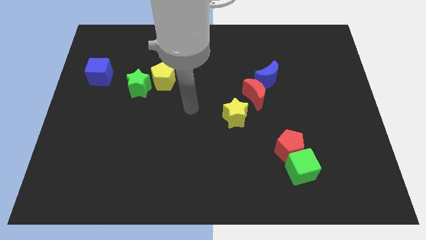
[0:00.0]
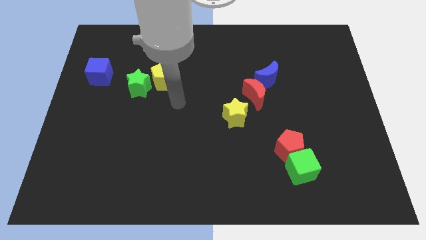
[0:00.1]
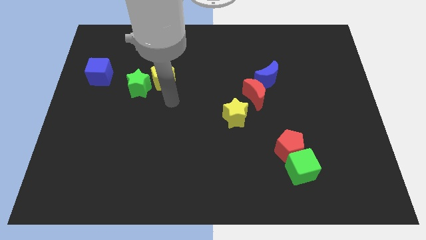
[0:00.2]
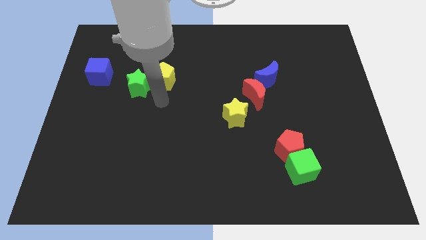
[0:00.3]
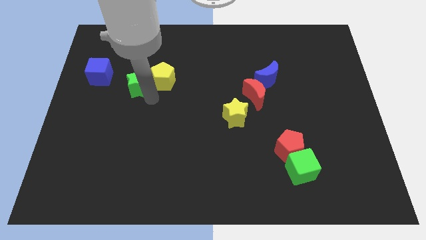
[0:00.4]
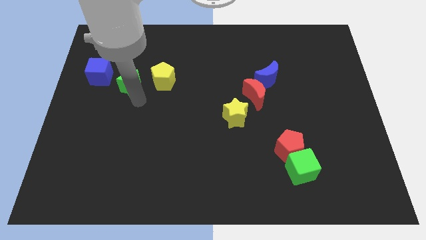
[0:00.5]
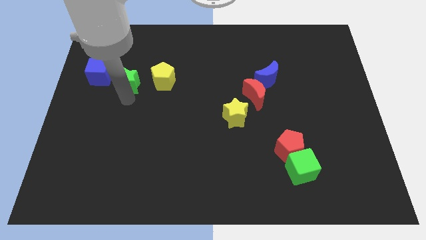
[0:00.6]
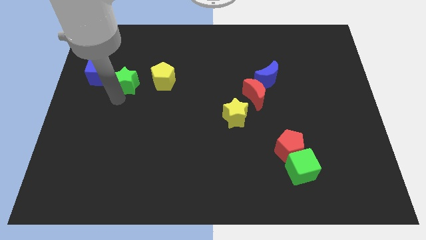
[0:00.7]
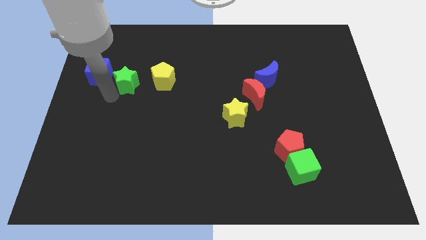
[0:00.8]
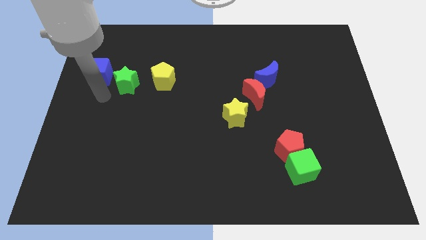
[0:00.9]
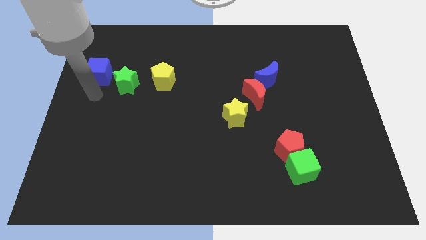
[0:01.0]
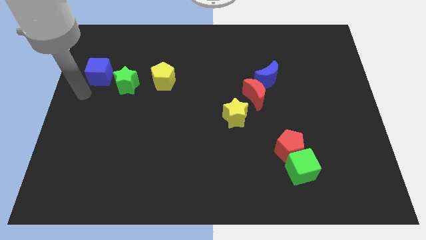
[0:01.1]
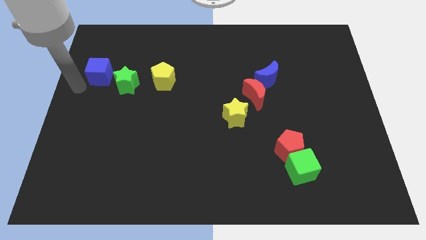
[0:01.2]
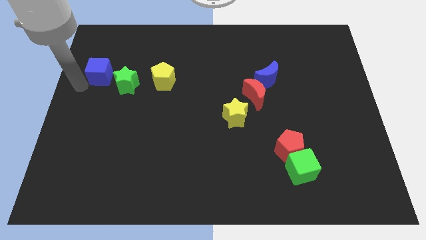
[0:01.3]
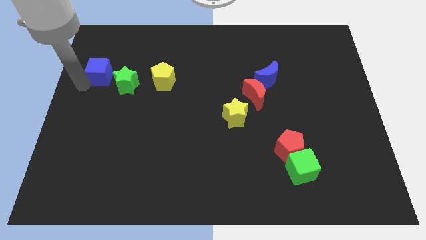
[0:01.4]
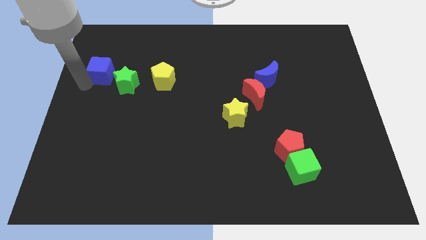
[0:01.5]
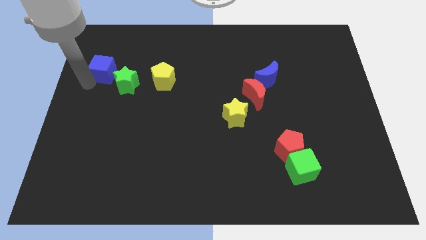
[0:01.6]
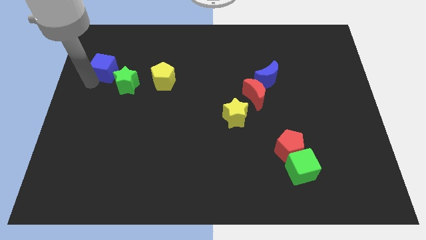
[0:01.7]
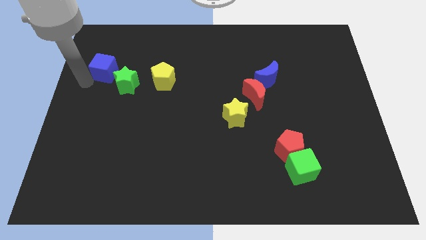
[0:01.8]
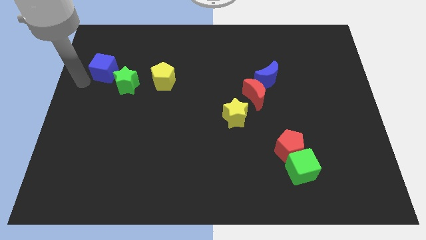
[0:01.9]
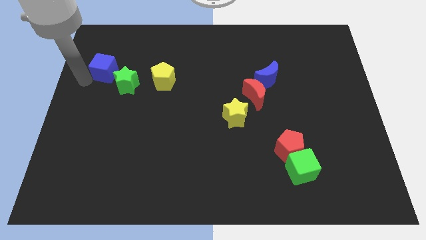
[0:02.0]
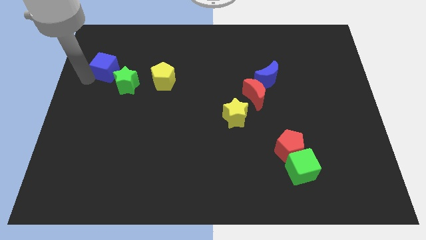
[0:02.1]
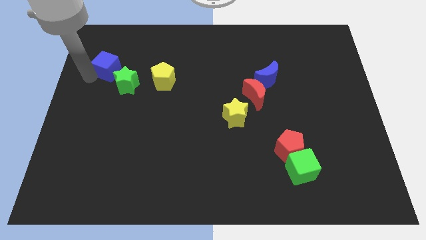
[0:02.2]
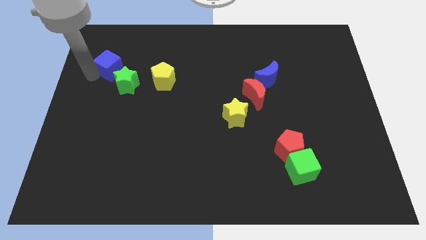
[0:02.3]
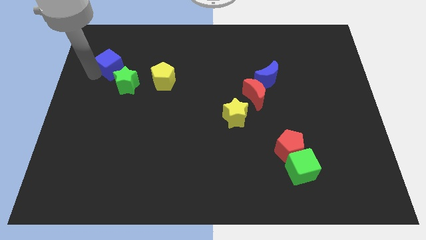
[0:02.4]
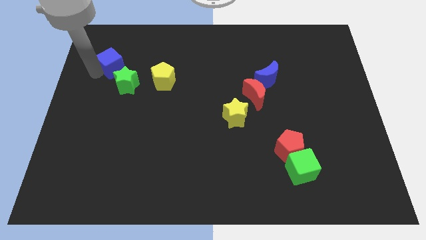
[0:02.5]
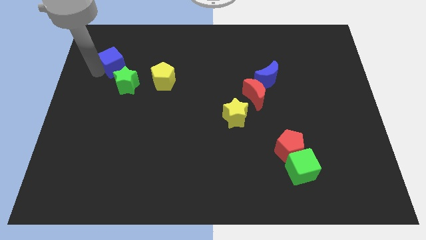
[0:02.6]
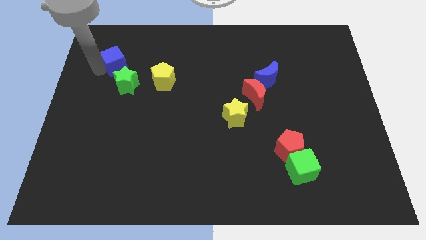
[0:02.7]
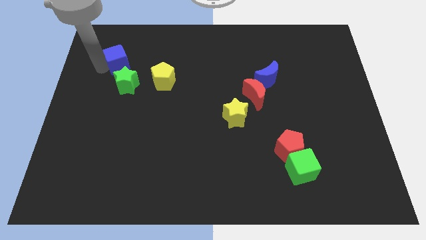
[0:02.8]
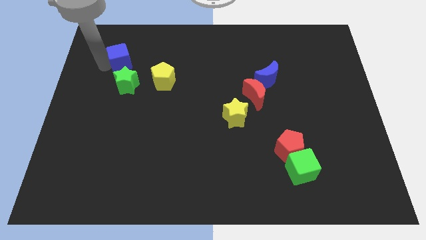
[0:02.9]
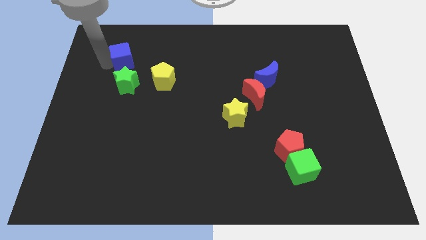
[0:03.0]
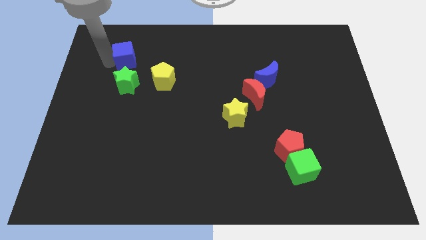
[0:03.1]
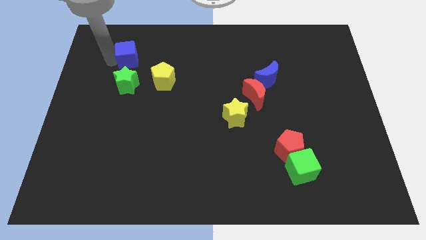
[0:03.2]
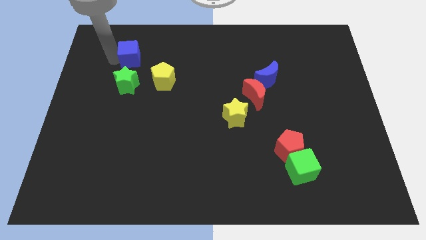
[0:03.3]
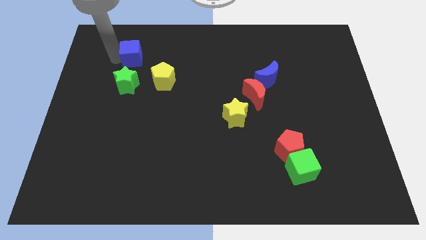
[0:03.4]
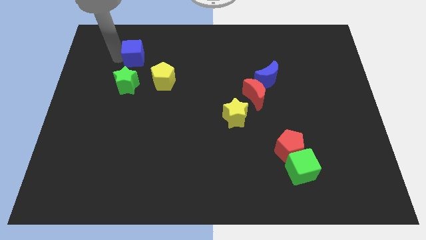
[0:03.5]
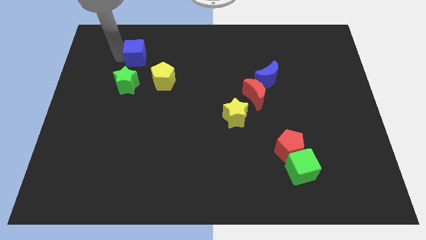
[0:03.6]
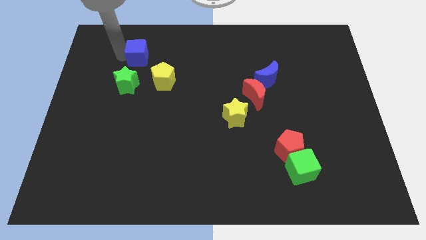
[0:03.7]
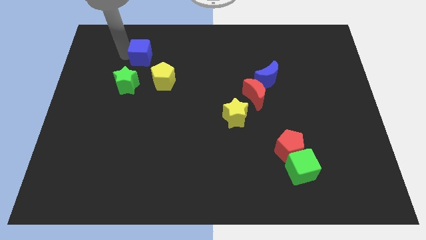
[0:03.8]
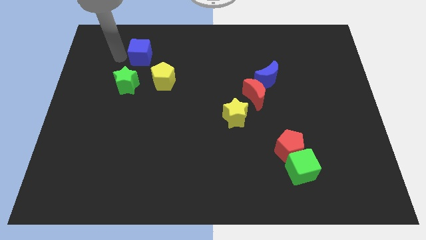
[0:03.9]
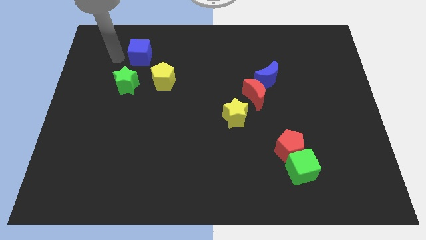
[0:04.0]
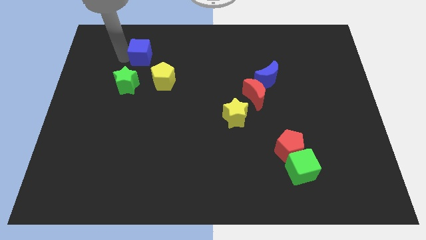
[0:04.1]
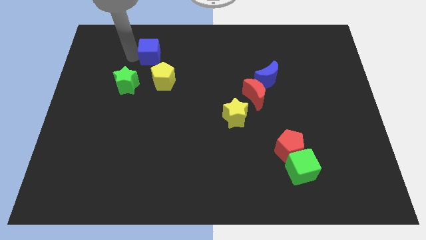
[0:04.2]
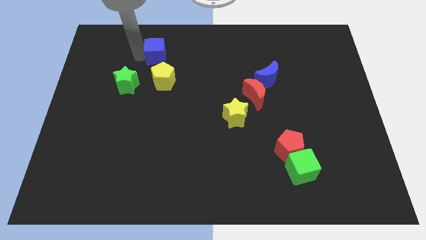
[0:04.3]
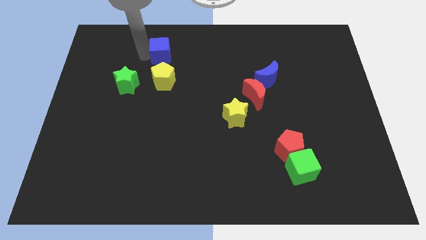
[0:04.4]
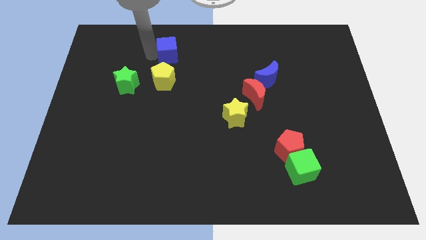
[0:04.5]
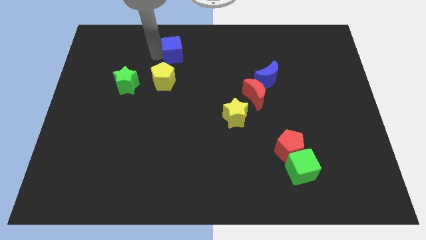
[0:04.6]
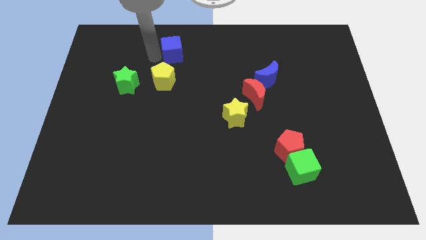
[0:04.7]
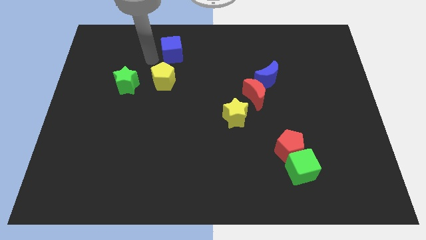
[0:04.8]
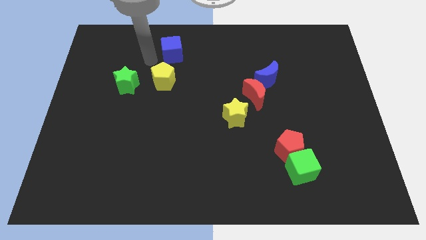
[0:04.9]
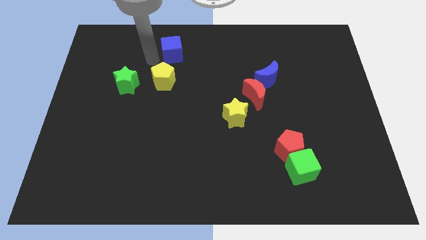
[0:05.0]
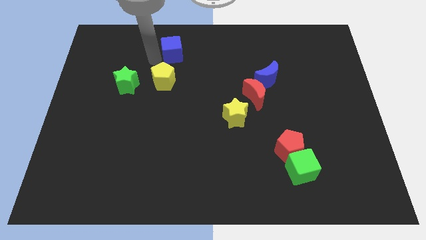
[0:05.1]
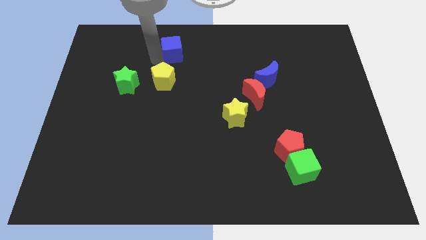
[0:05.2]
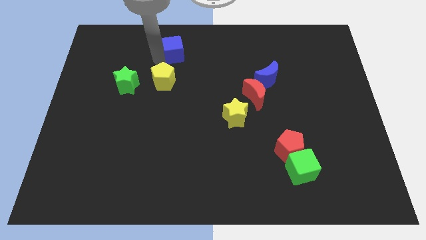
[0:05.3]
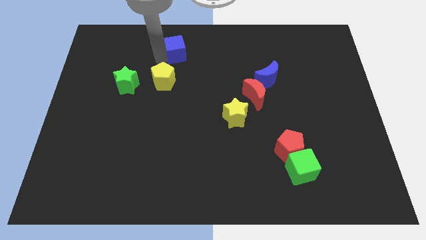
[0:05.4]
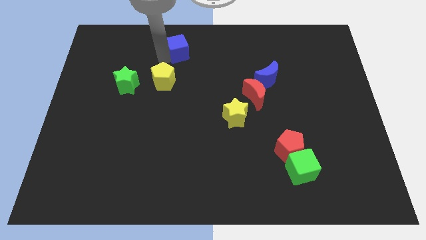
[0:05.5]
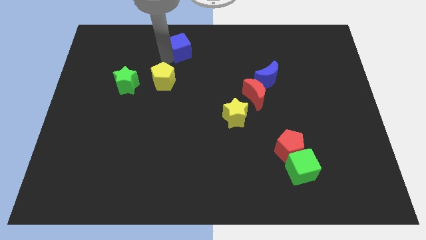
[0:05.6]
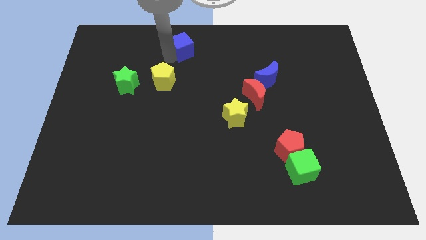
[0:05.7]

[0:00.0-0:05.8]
move the blue cube to the top side
